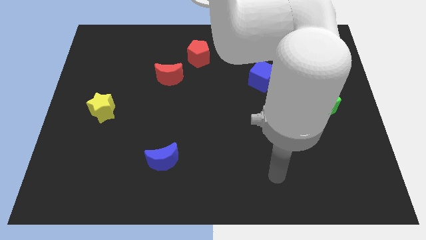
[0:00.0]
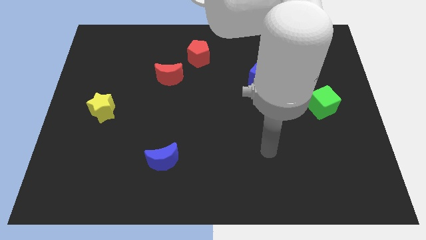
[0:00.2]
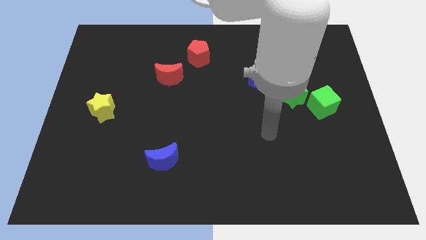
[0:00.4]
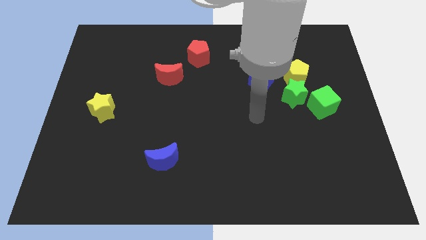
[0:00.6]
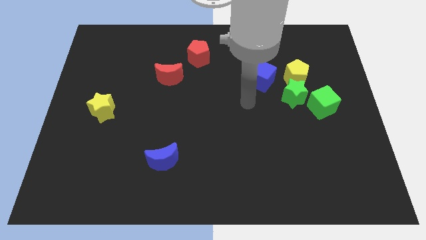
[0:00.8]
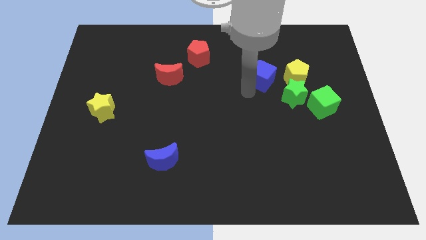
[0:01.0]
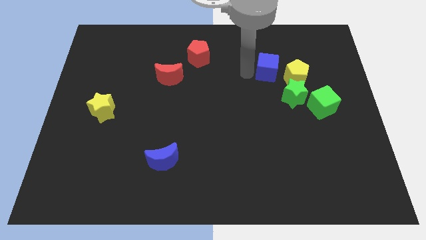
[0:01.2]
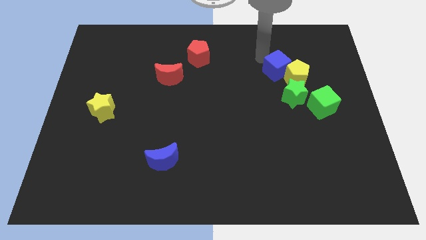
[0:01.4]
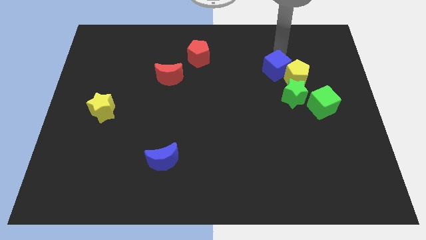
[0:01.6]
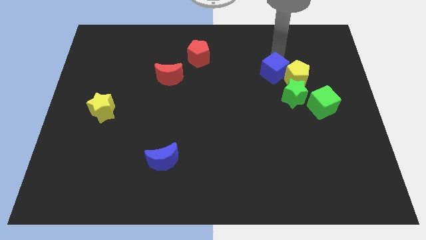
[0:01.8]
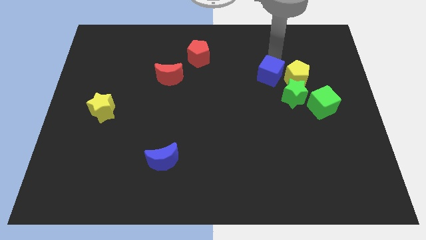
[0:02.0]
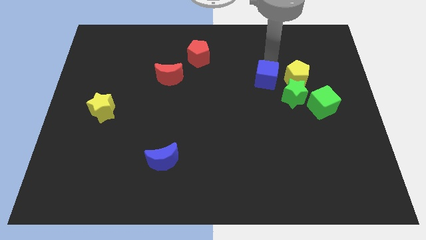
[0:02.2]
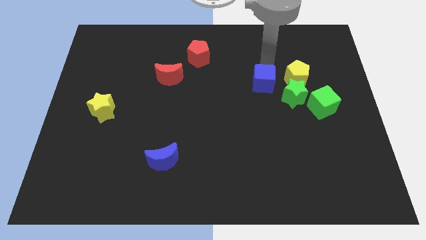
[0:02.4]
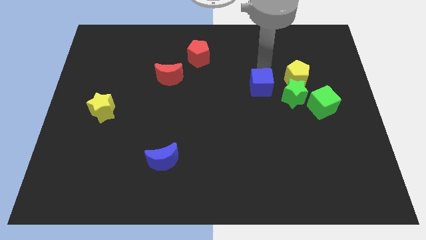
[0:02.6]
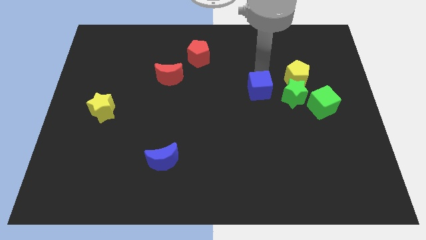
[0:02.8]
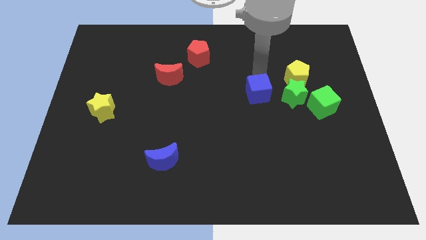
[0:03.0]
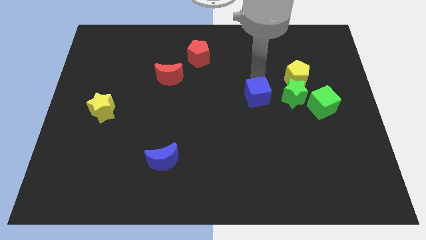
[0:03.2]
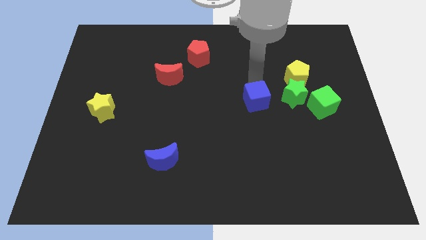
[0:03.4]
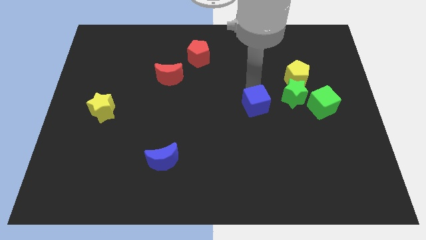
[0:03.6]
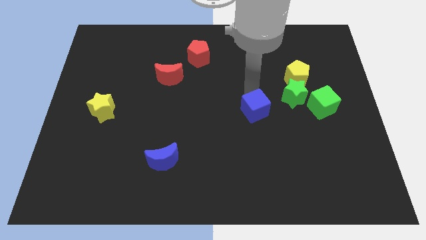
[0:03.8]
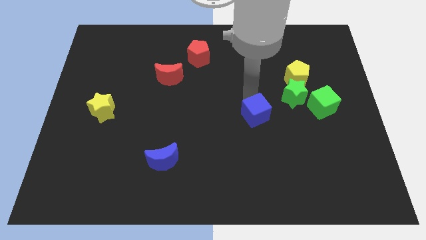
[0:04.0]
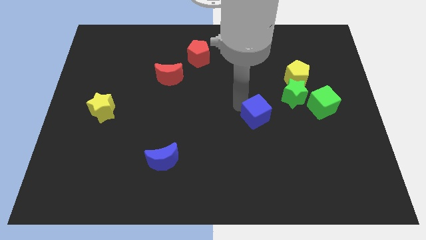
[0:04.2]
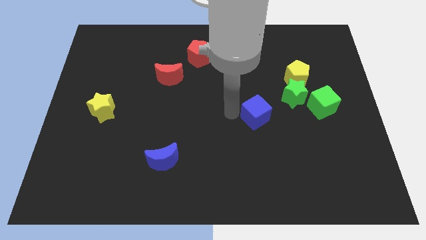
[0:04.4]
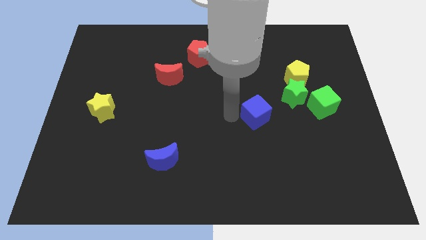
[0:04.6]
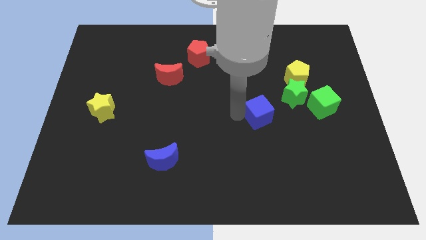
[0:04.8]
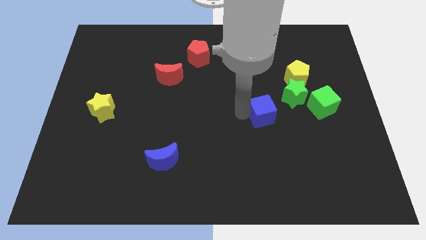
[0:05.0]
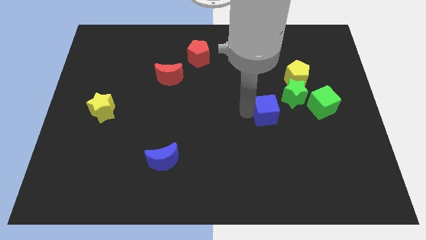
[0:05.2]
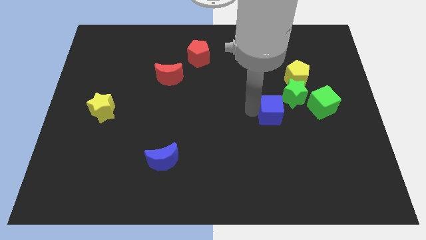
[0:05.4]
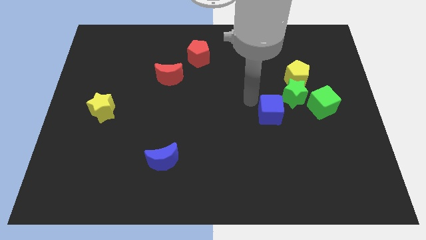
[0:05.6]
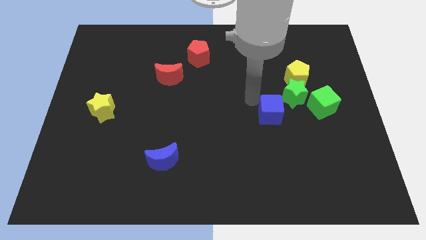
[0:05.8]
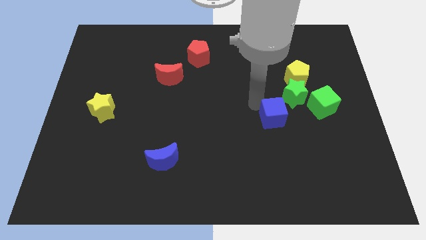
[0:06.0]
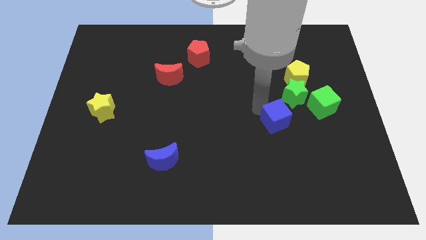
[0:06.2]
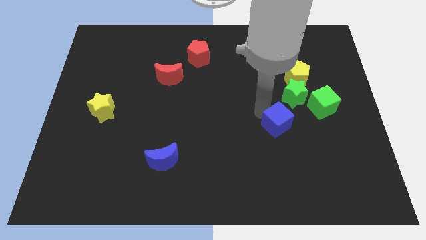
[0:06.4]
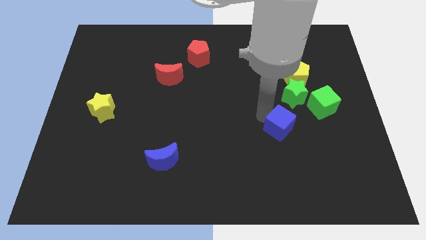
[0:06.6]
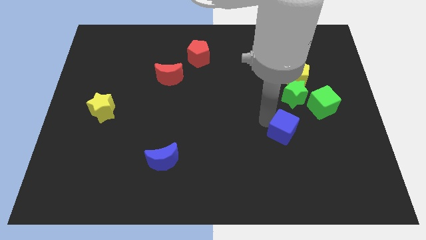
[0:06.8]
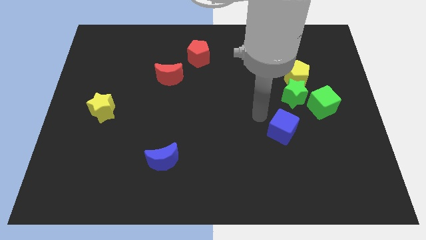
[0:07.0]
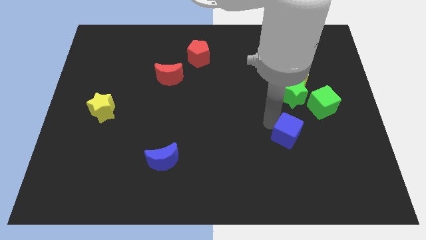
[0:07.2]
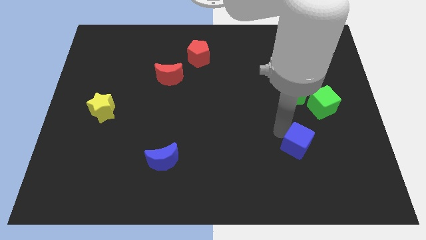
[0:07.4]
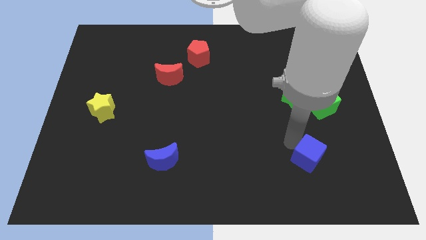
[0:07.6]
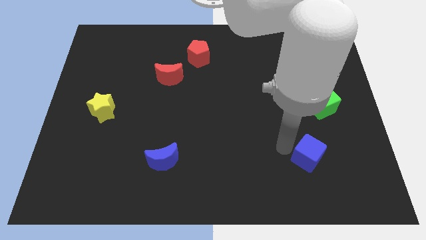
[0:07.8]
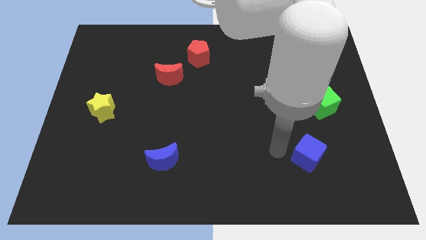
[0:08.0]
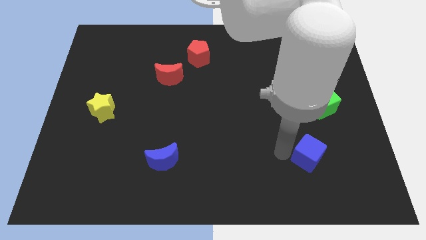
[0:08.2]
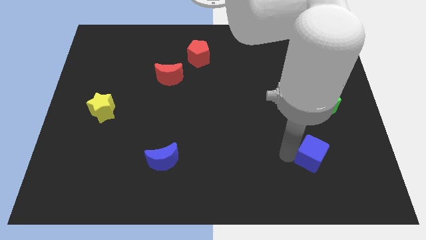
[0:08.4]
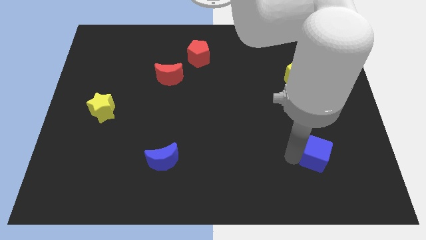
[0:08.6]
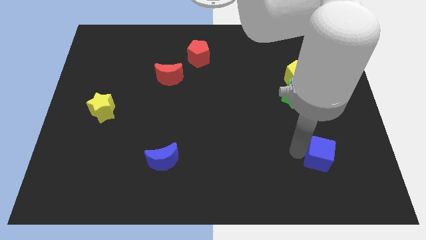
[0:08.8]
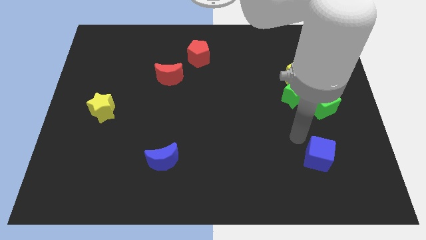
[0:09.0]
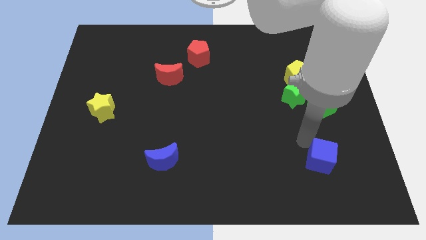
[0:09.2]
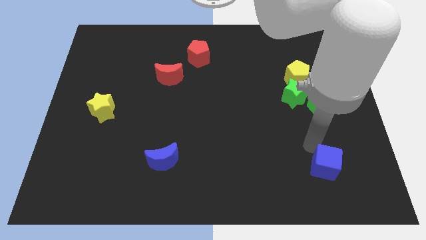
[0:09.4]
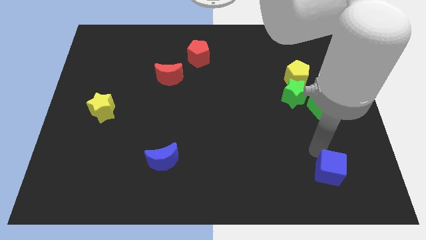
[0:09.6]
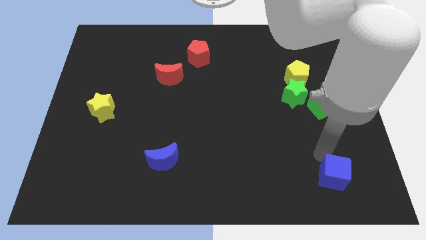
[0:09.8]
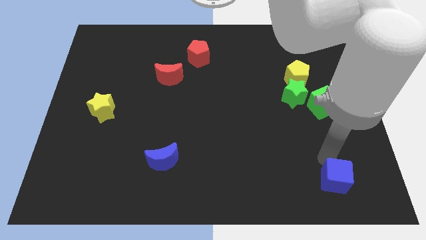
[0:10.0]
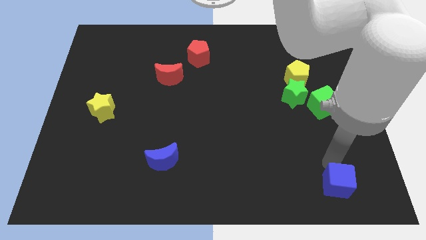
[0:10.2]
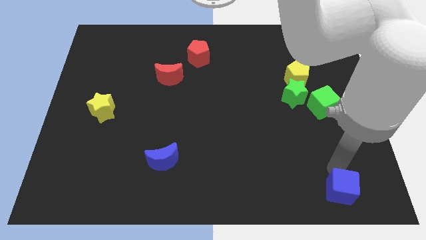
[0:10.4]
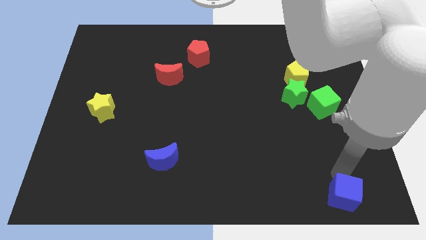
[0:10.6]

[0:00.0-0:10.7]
put the blue cube to the bottom right corner

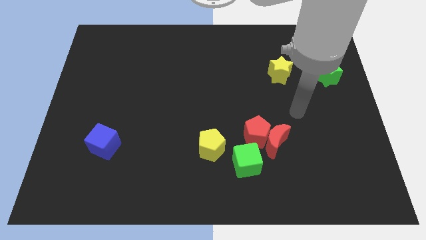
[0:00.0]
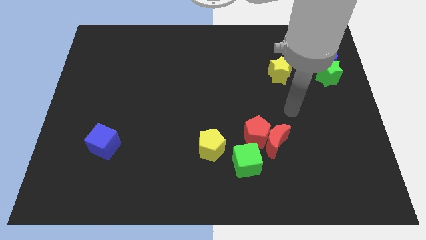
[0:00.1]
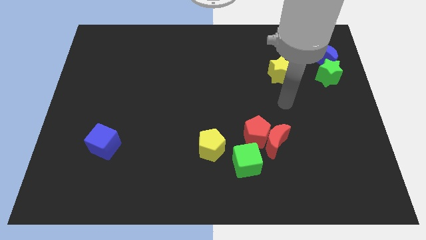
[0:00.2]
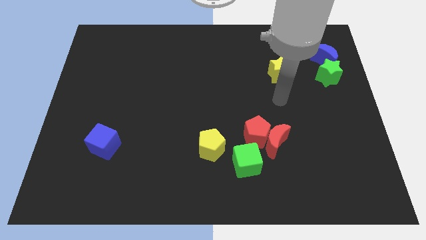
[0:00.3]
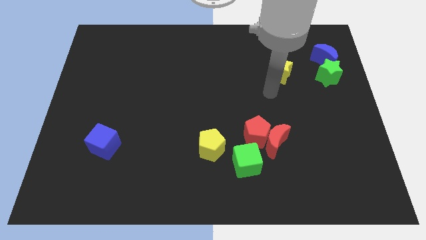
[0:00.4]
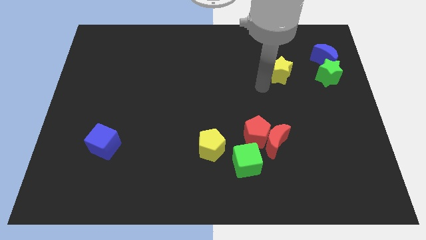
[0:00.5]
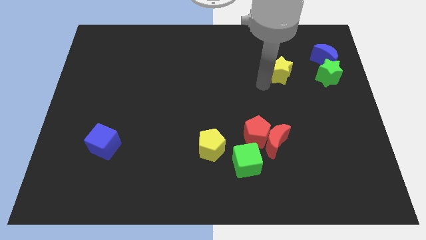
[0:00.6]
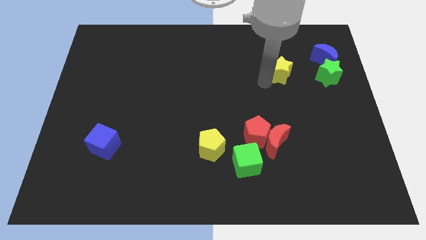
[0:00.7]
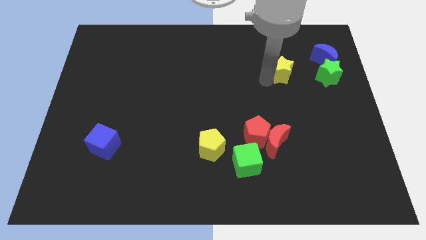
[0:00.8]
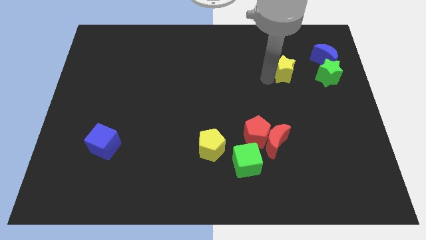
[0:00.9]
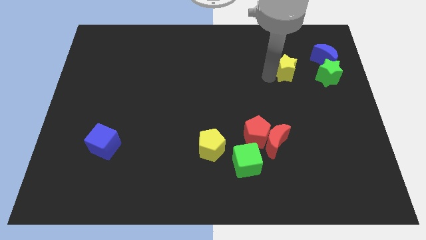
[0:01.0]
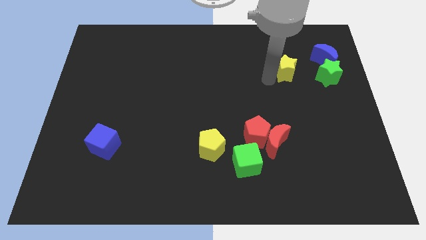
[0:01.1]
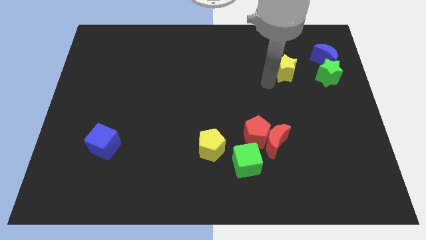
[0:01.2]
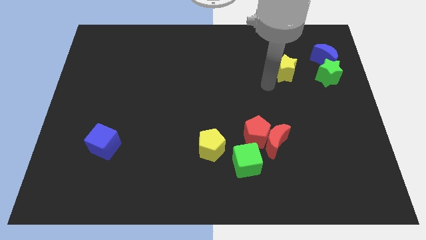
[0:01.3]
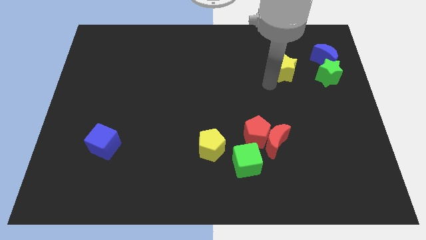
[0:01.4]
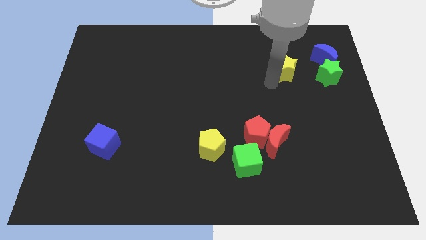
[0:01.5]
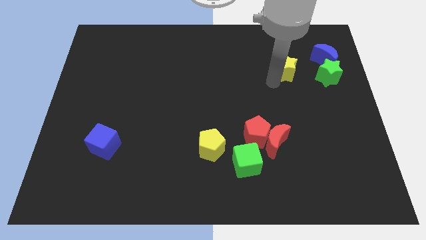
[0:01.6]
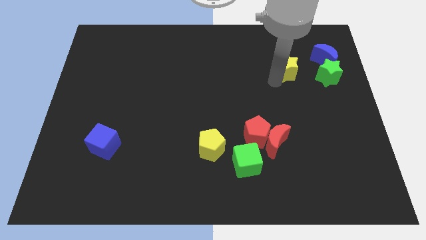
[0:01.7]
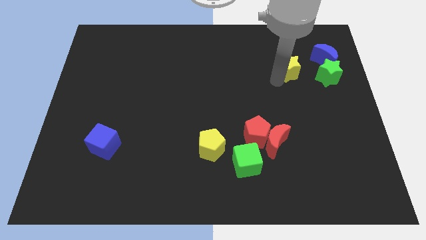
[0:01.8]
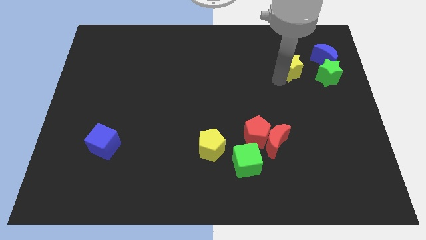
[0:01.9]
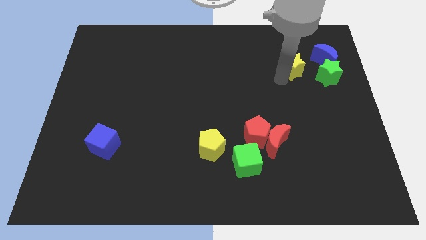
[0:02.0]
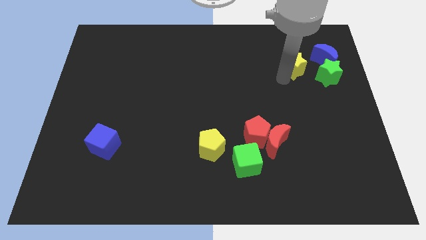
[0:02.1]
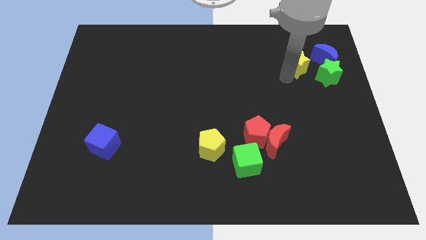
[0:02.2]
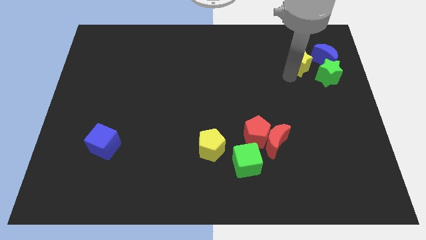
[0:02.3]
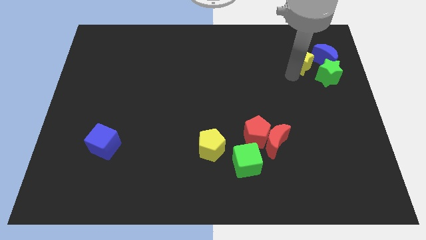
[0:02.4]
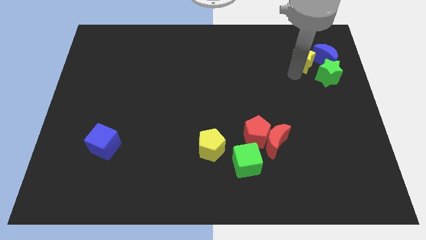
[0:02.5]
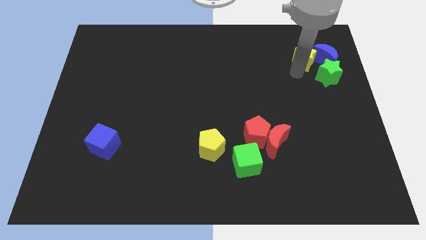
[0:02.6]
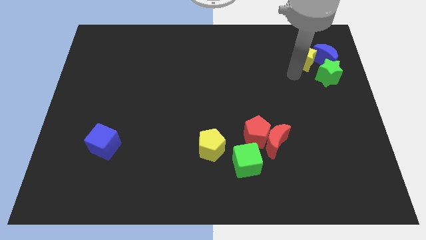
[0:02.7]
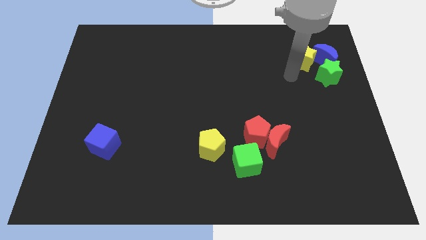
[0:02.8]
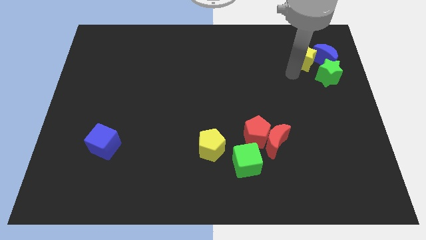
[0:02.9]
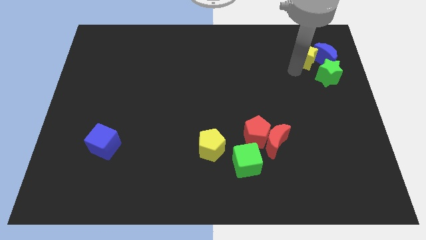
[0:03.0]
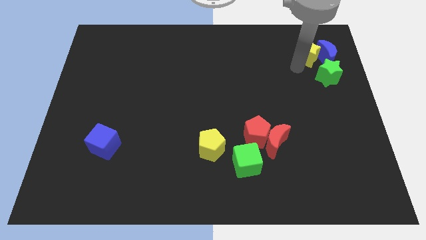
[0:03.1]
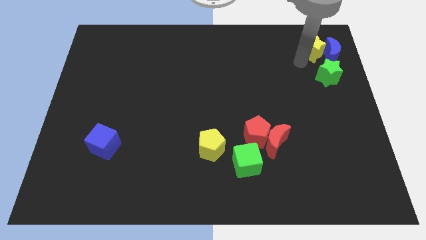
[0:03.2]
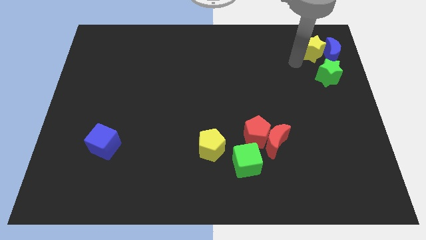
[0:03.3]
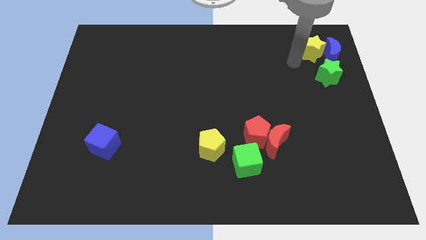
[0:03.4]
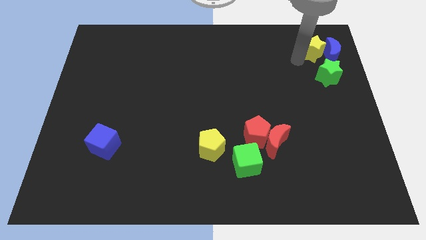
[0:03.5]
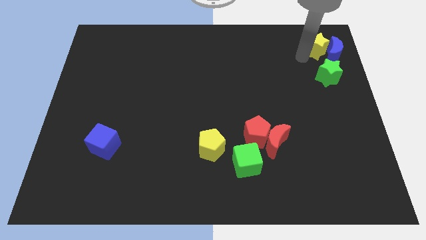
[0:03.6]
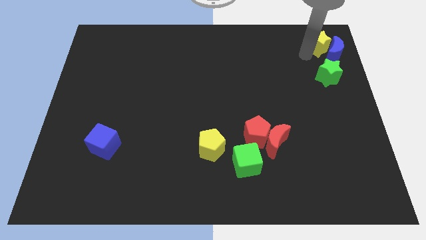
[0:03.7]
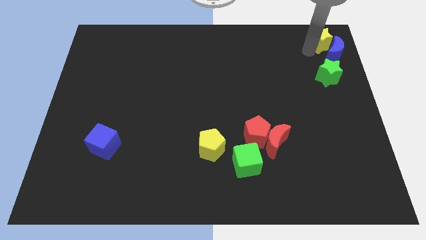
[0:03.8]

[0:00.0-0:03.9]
slide the yellow star to the upper right corner
